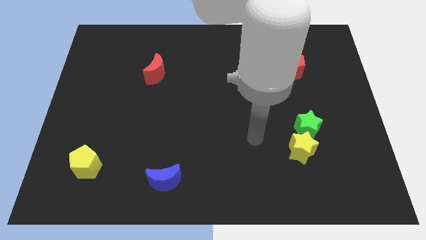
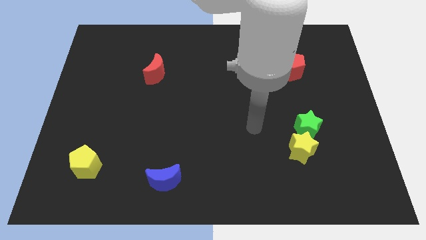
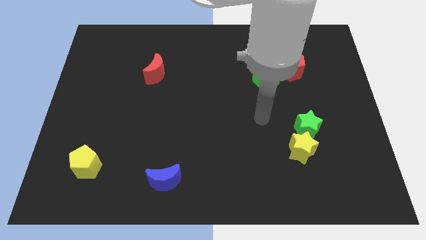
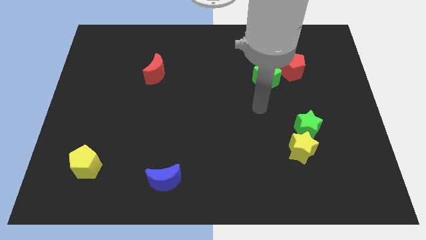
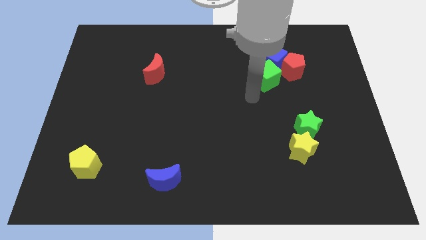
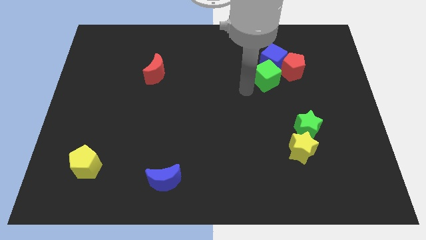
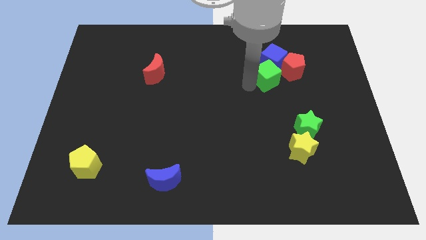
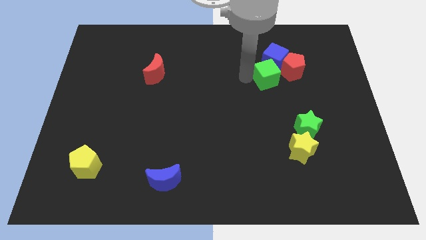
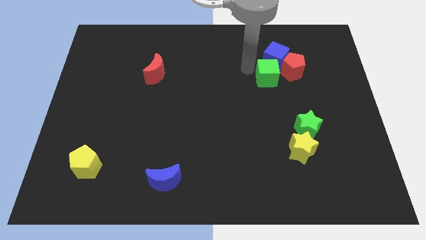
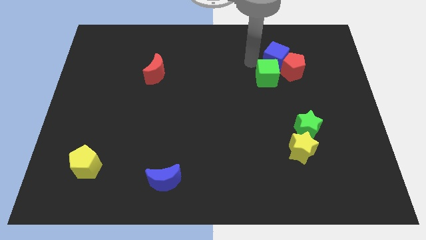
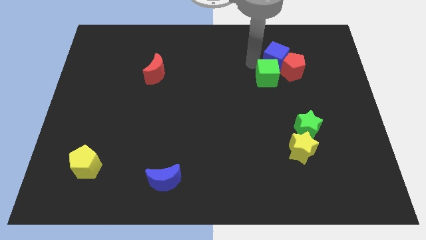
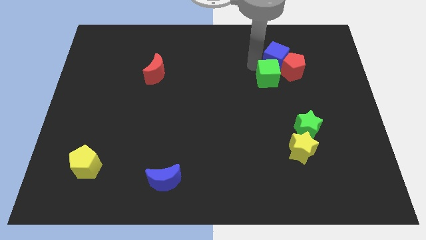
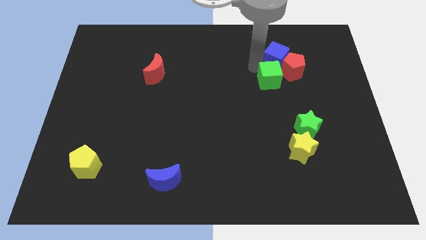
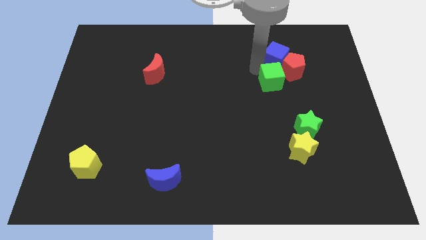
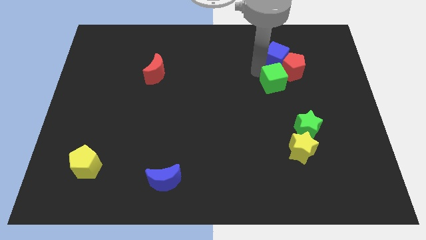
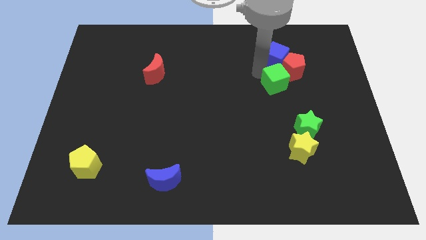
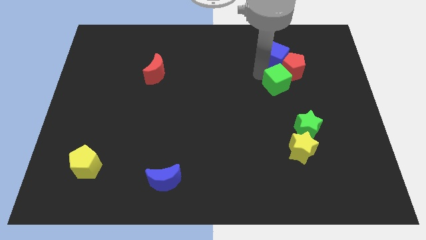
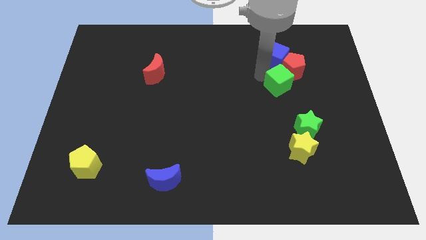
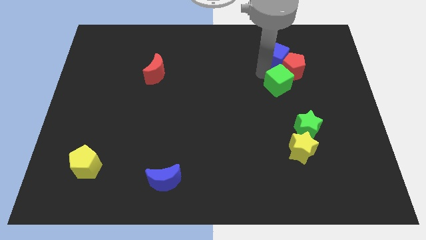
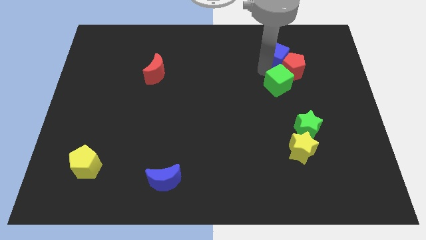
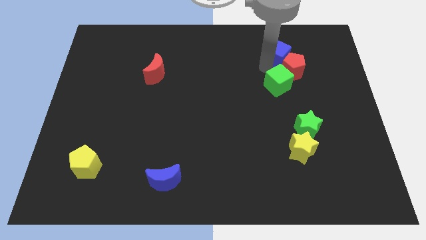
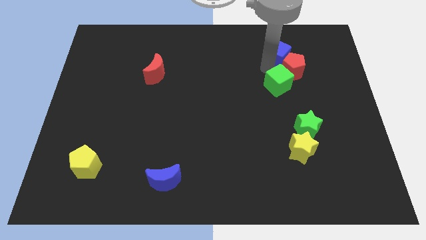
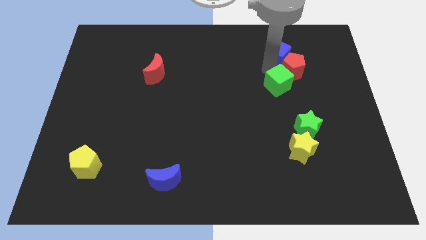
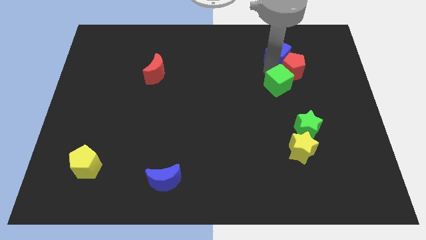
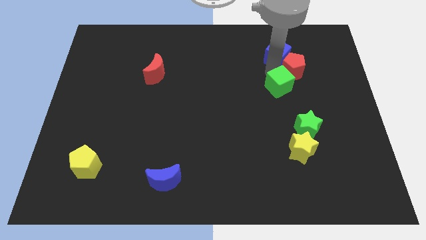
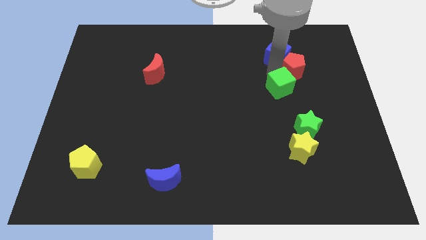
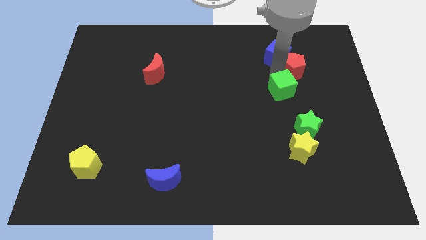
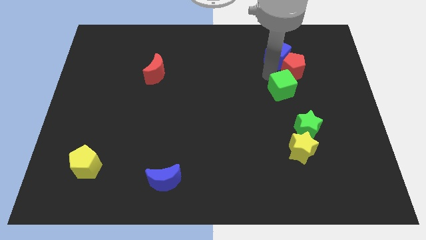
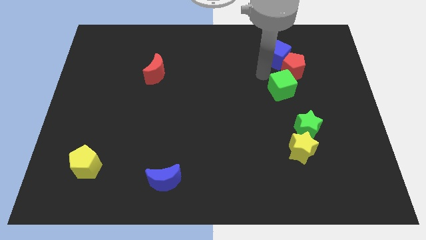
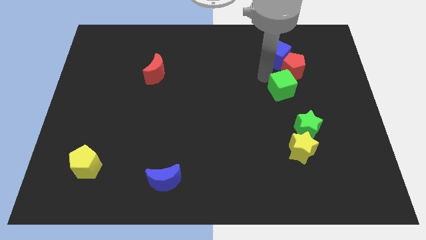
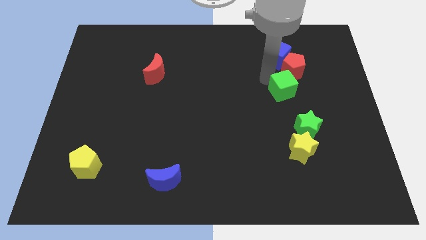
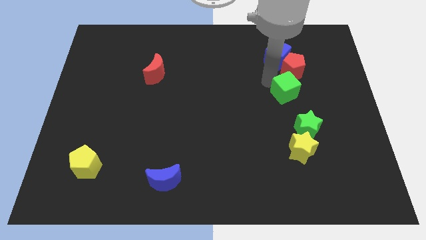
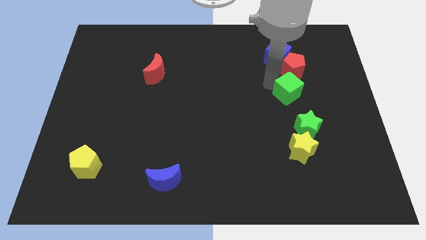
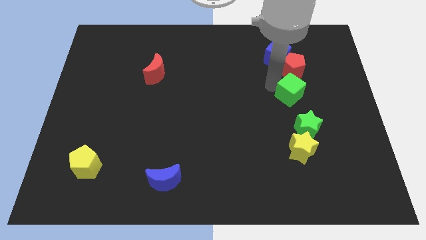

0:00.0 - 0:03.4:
slide the green cube down and then to the right somewhat

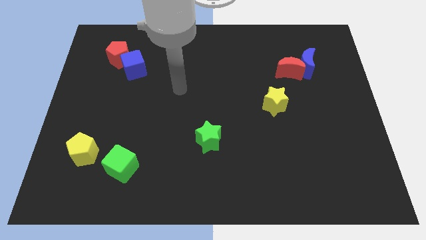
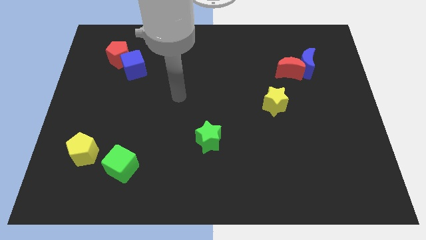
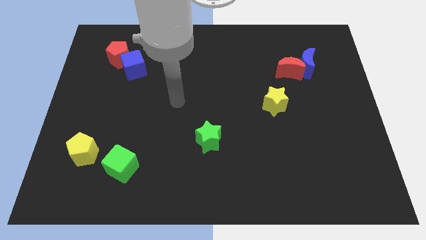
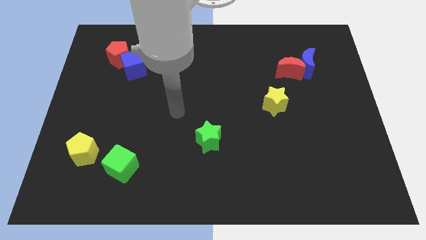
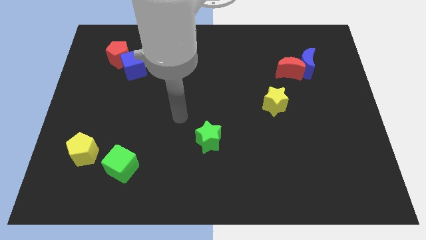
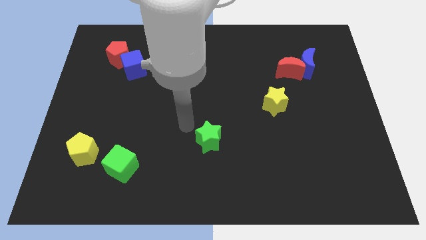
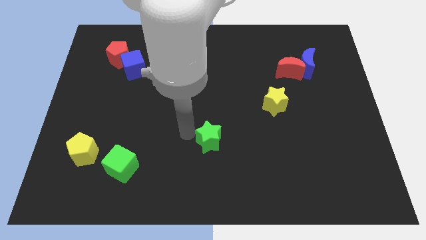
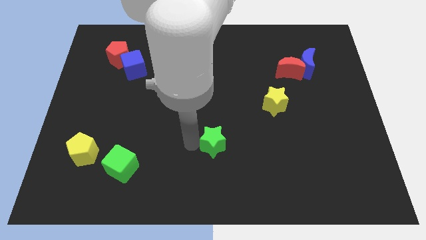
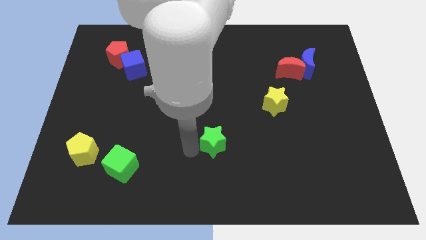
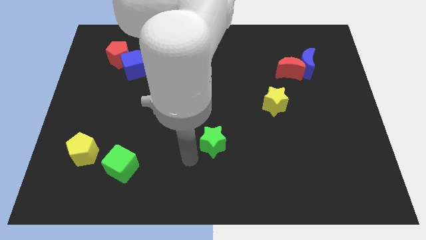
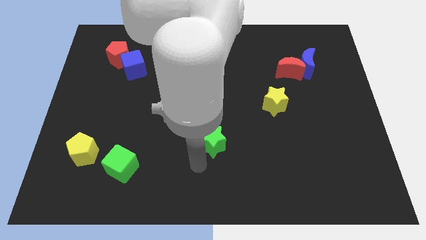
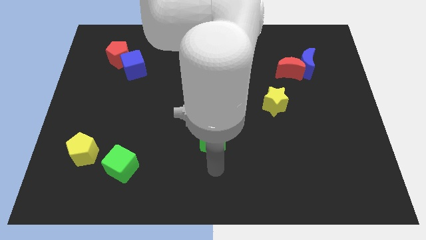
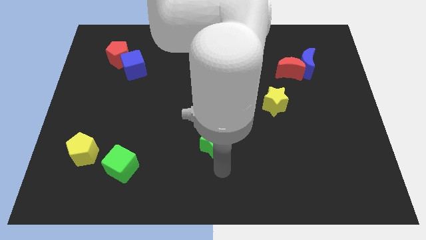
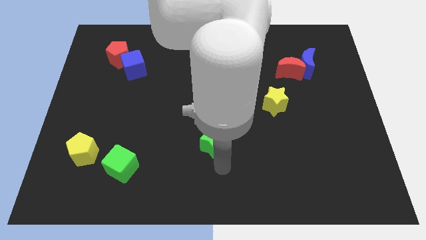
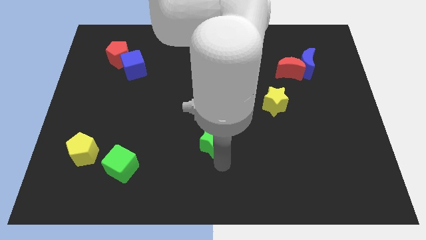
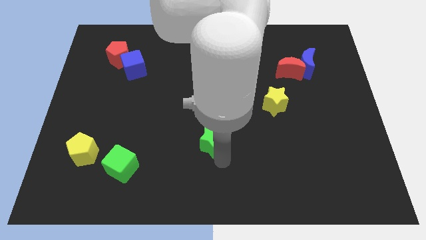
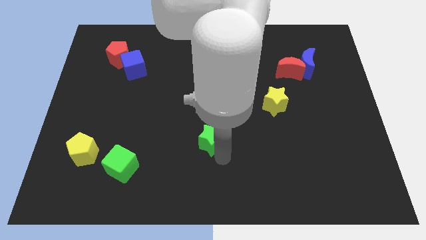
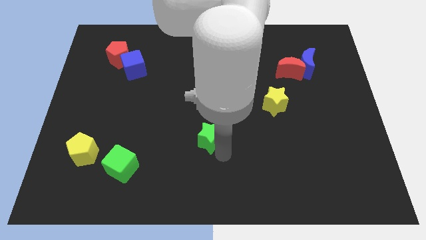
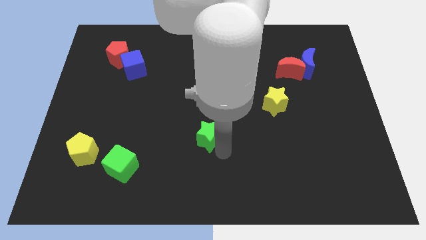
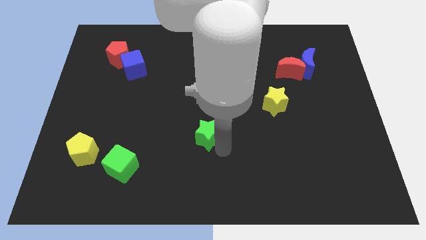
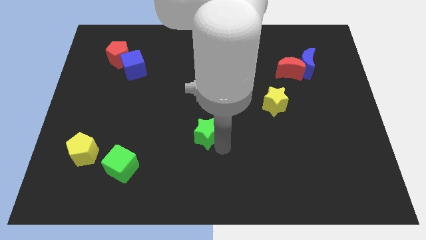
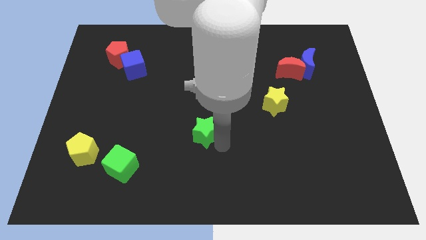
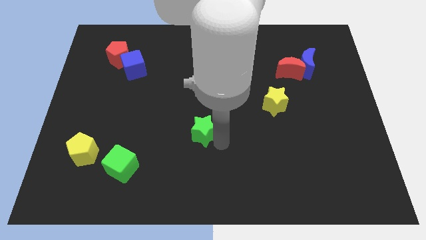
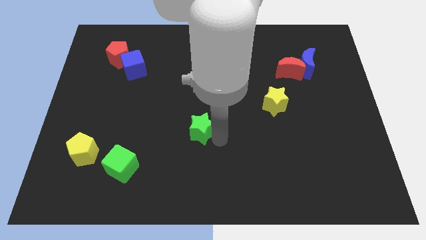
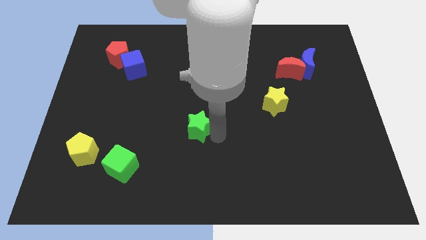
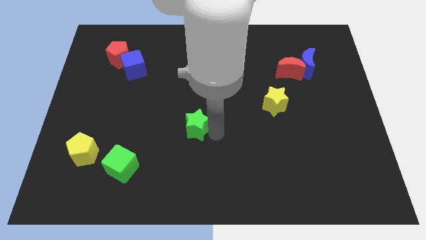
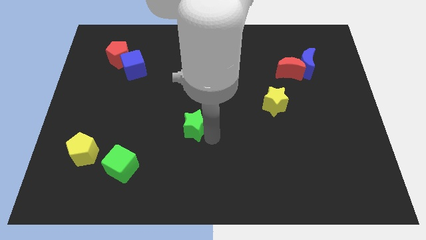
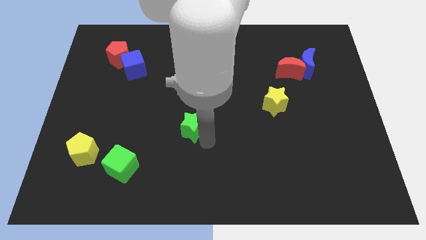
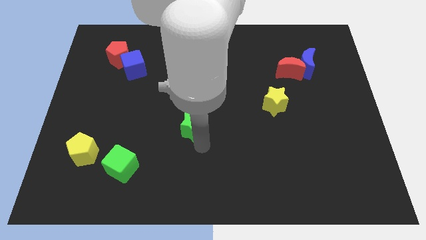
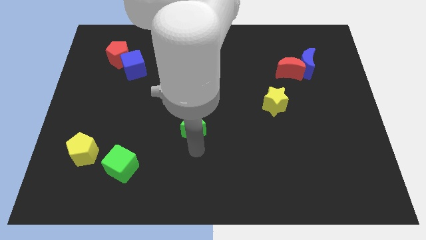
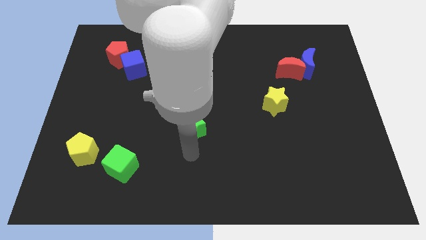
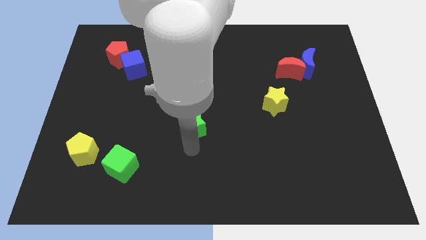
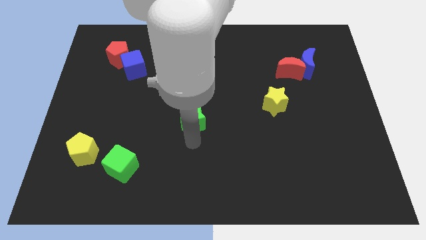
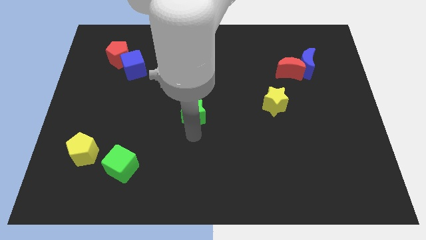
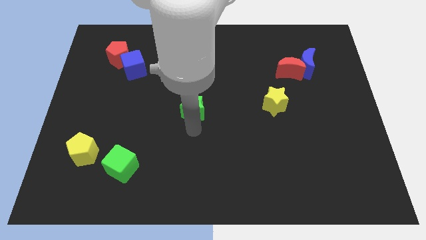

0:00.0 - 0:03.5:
push the green star up a little bit

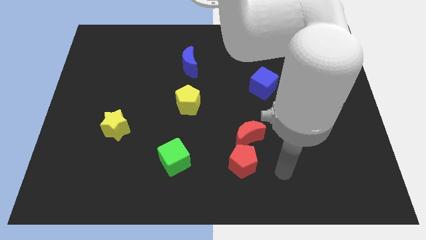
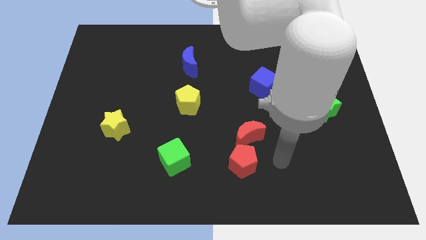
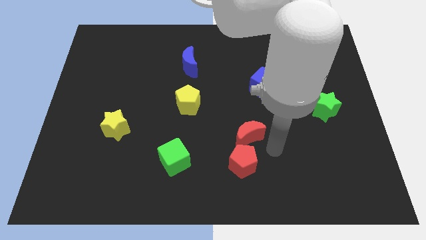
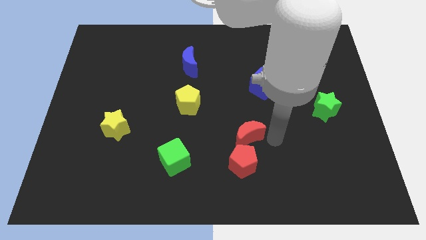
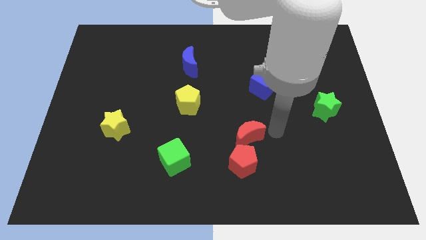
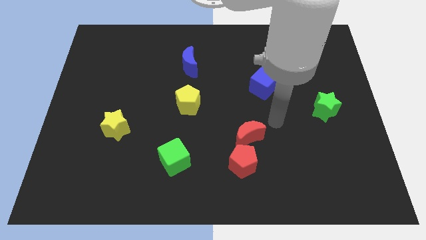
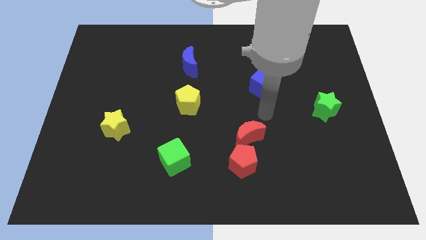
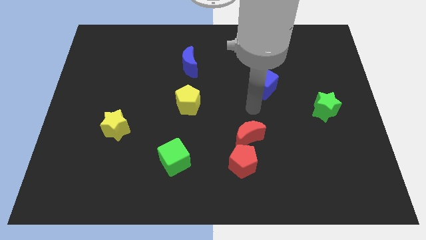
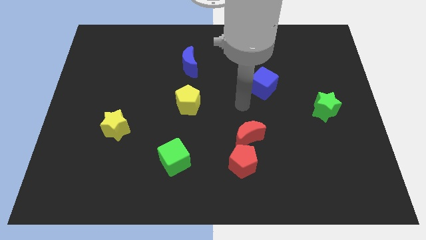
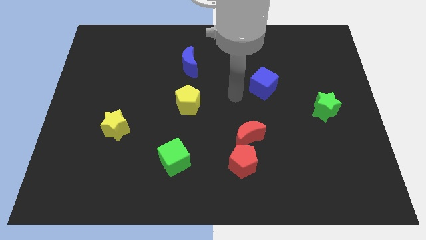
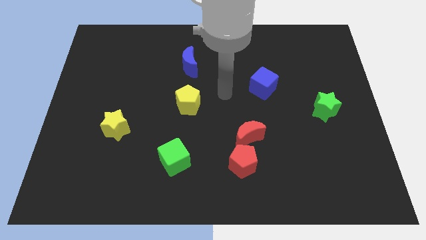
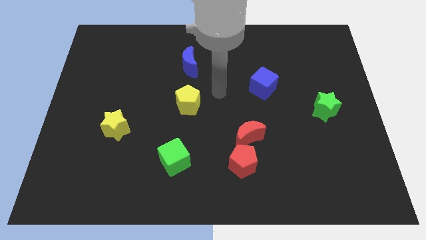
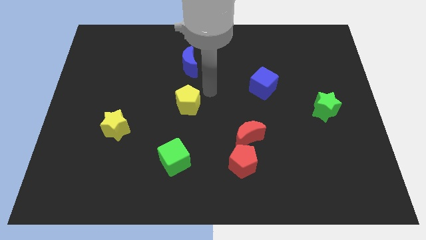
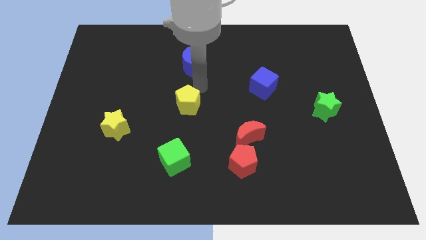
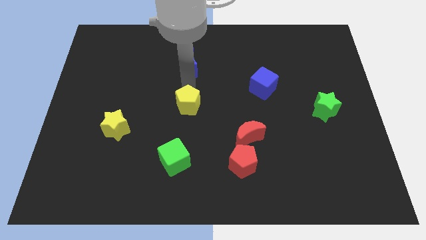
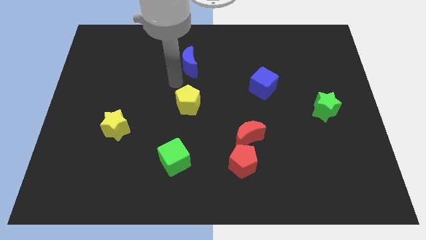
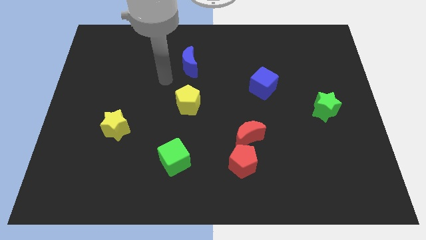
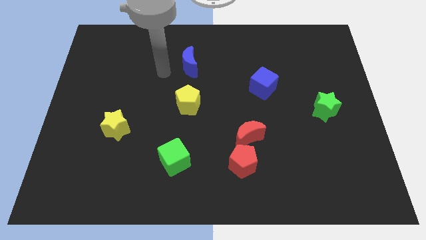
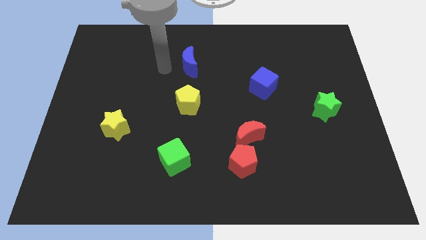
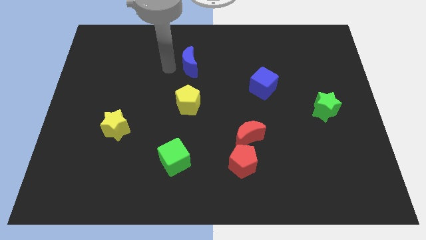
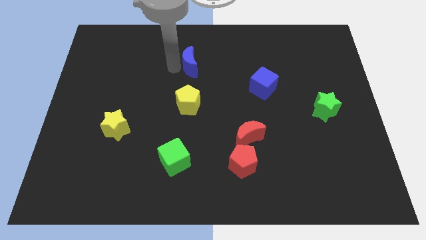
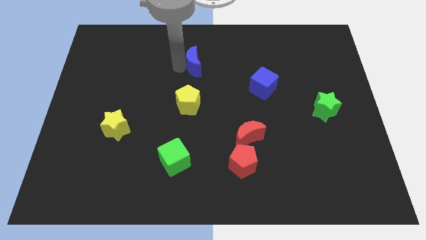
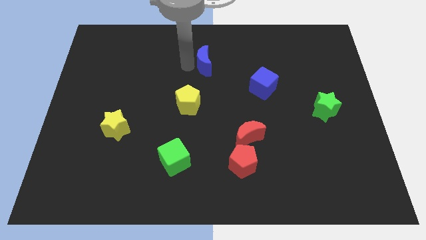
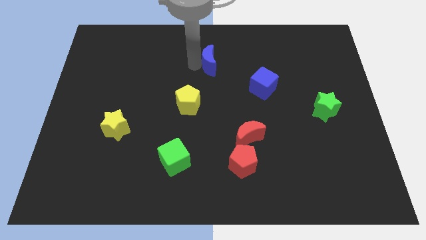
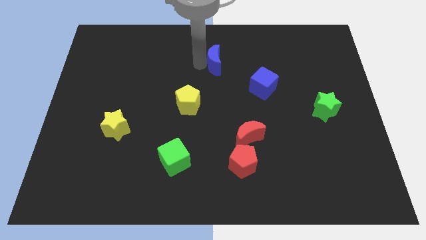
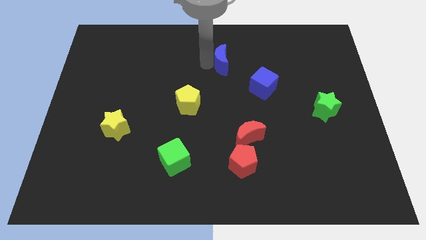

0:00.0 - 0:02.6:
move the blue moon to the right somewhat
